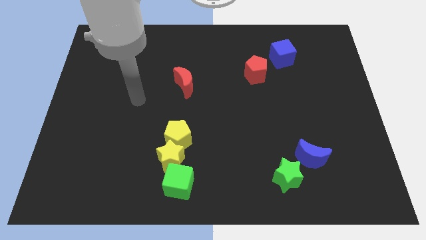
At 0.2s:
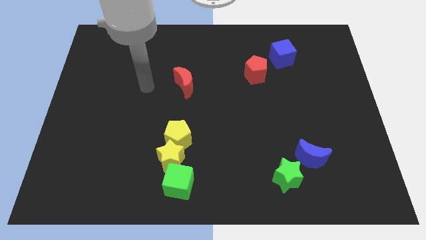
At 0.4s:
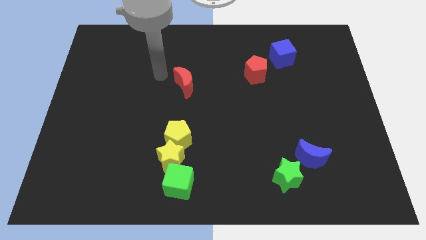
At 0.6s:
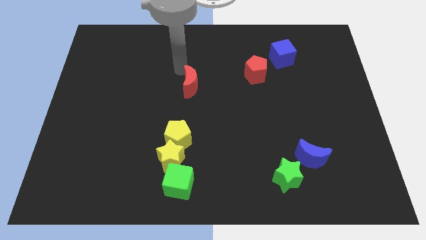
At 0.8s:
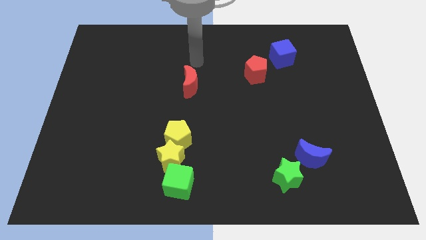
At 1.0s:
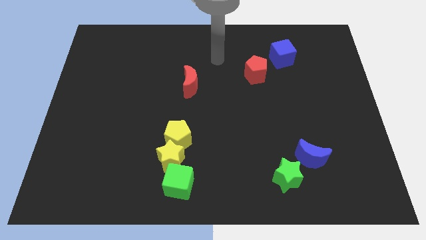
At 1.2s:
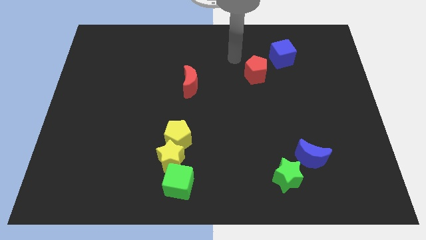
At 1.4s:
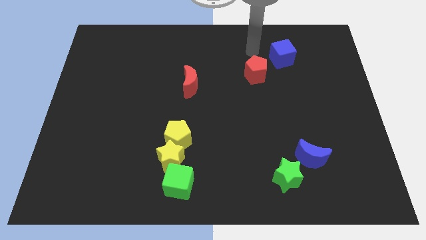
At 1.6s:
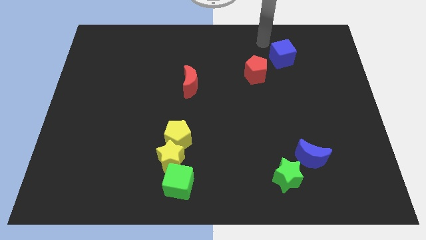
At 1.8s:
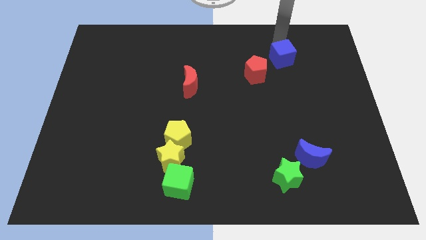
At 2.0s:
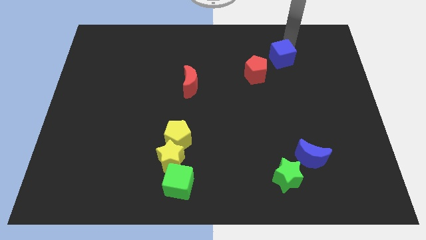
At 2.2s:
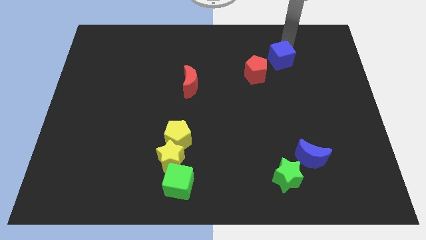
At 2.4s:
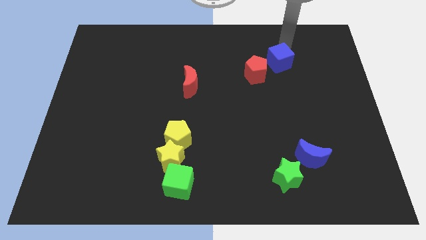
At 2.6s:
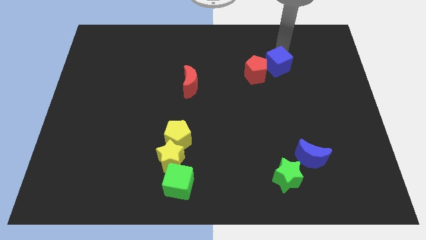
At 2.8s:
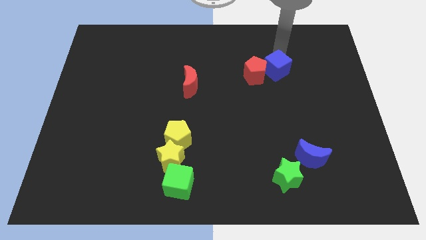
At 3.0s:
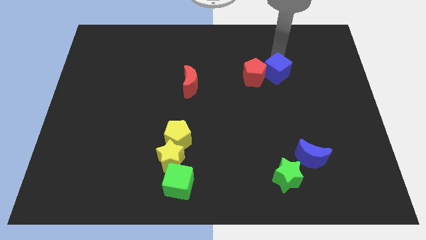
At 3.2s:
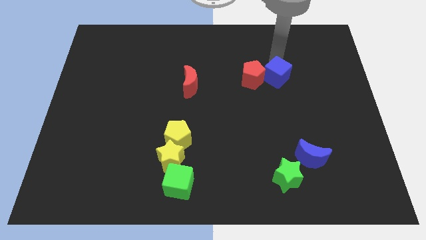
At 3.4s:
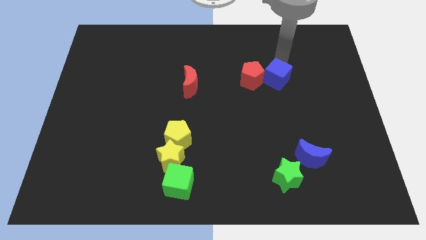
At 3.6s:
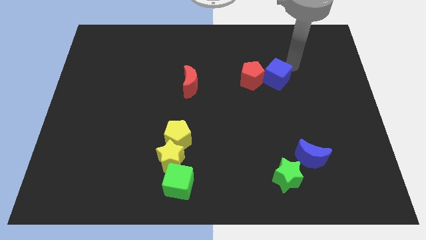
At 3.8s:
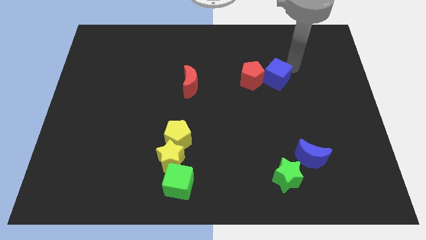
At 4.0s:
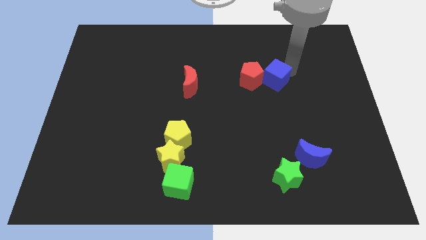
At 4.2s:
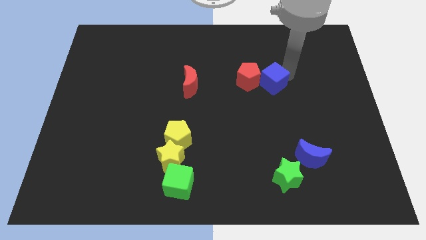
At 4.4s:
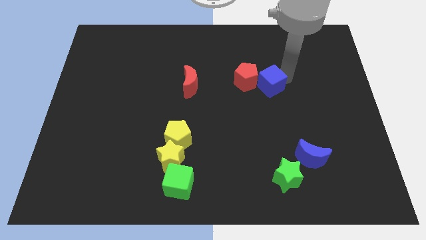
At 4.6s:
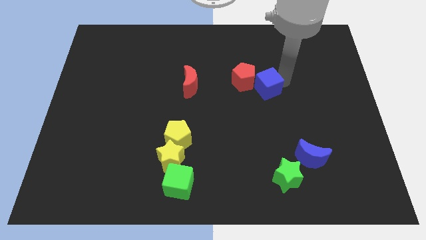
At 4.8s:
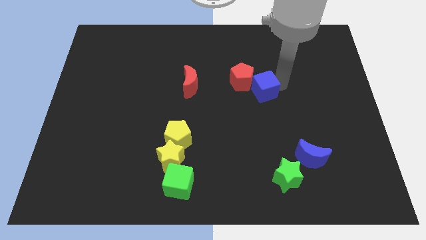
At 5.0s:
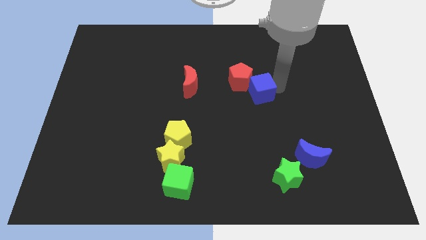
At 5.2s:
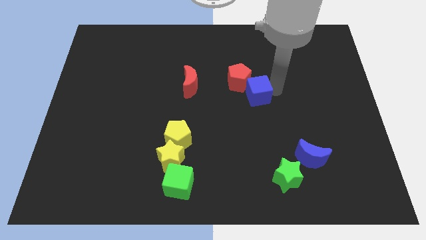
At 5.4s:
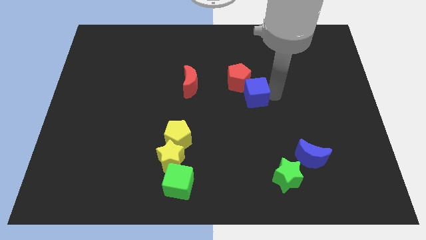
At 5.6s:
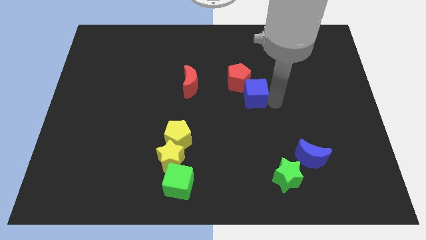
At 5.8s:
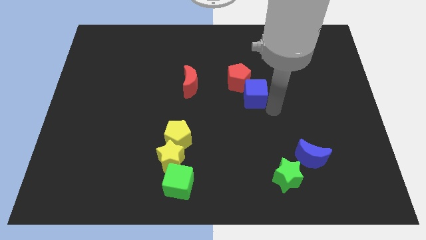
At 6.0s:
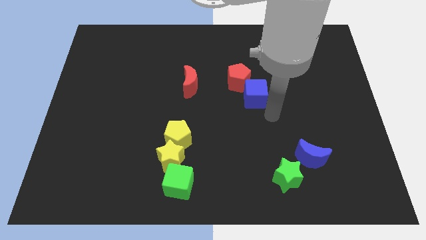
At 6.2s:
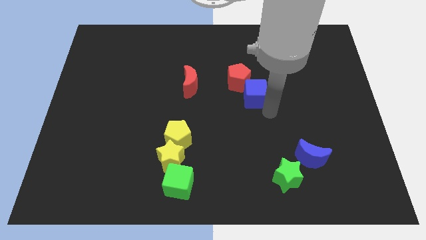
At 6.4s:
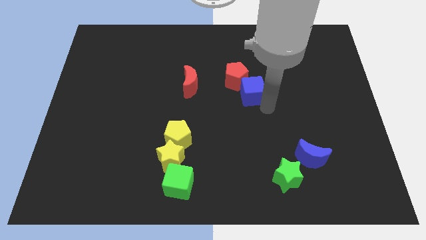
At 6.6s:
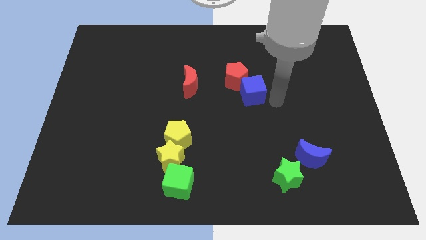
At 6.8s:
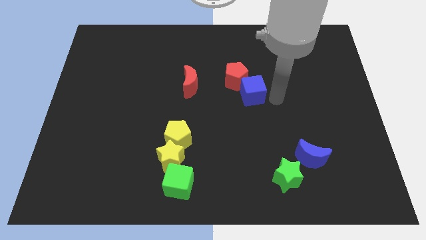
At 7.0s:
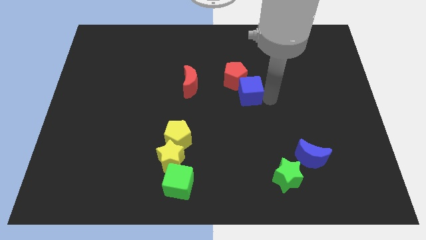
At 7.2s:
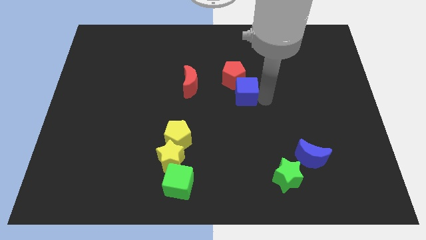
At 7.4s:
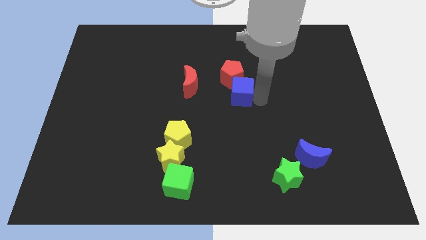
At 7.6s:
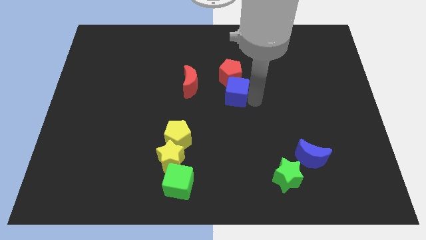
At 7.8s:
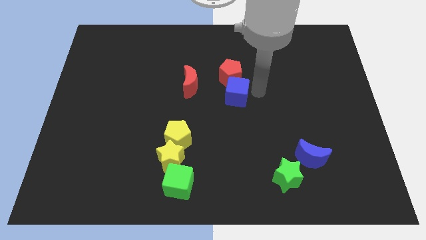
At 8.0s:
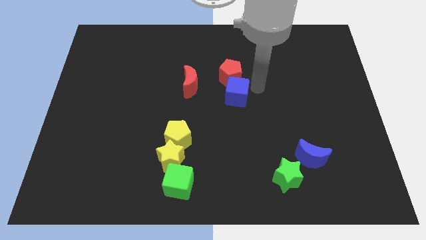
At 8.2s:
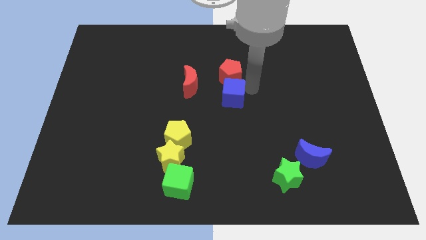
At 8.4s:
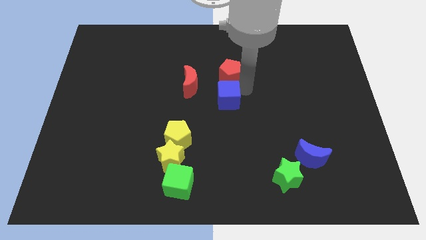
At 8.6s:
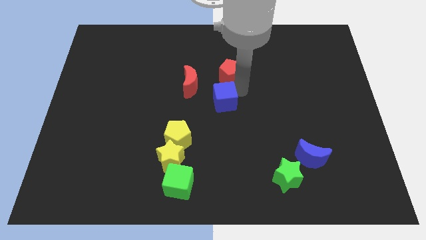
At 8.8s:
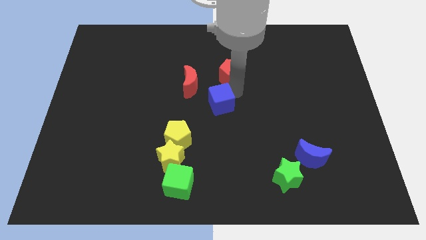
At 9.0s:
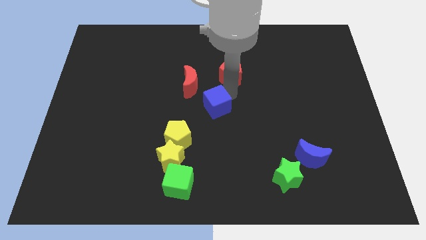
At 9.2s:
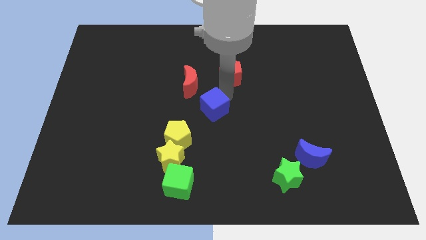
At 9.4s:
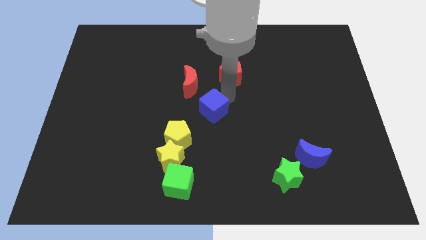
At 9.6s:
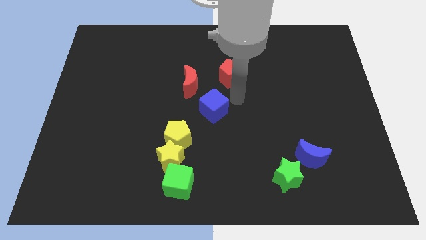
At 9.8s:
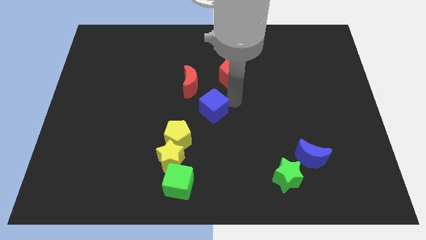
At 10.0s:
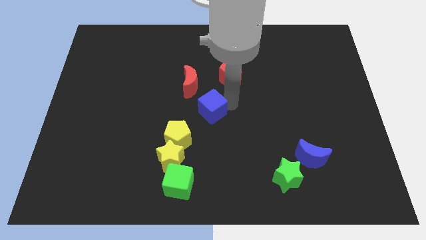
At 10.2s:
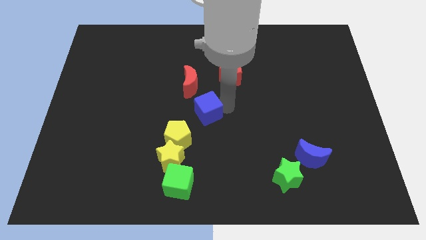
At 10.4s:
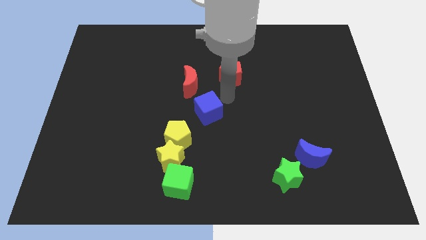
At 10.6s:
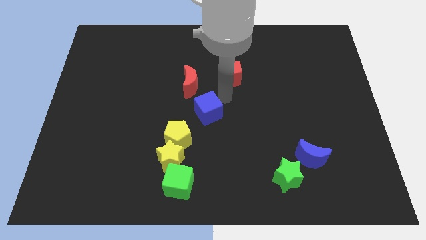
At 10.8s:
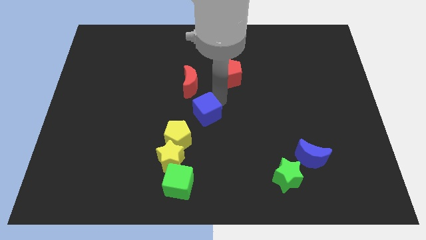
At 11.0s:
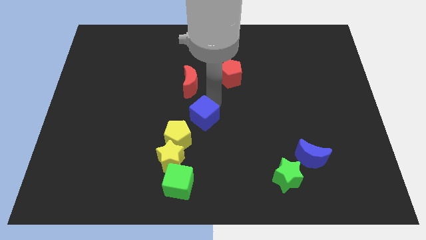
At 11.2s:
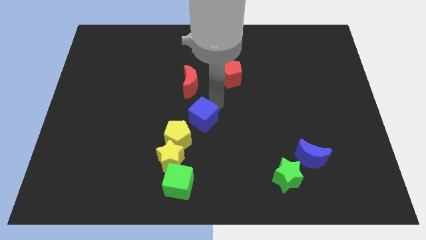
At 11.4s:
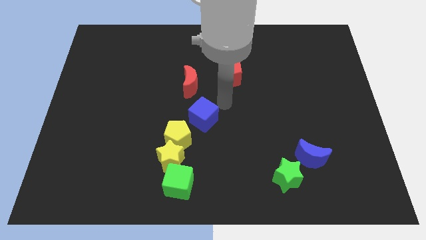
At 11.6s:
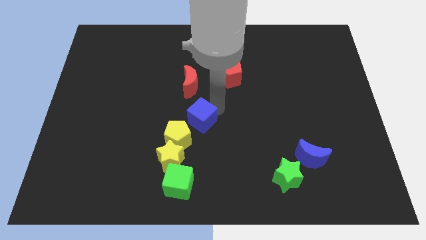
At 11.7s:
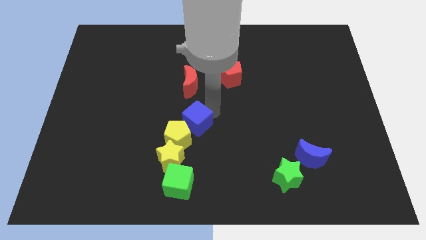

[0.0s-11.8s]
slide the blue cube towards the yellow pentagon

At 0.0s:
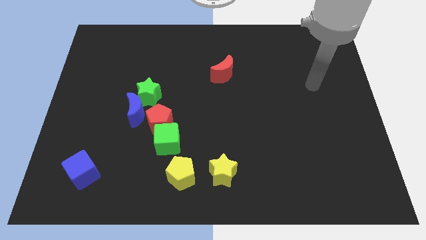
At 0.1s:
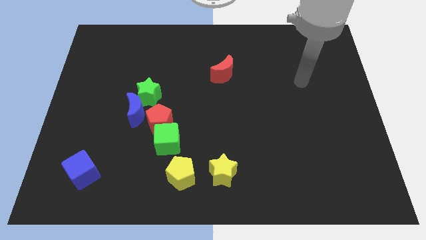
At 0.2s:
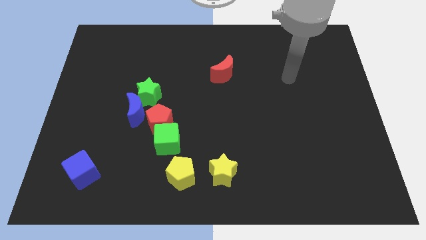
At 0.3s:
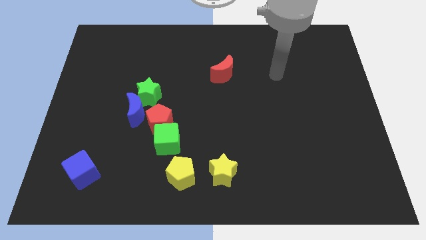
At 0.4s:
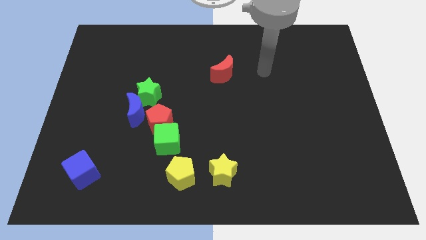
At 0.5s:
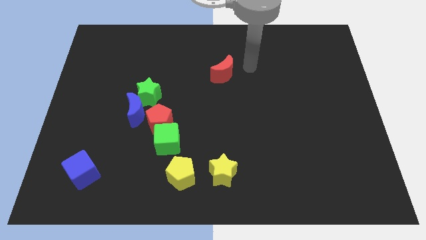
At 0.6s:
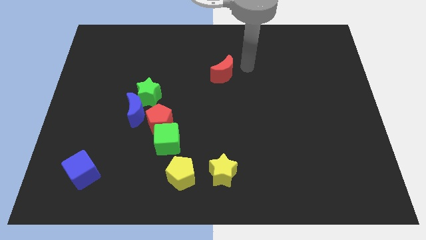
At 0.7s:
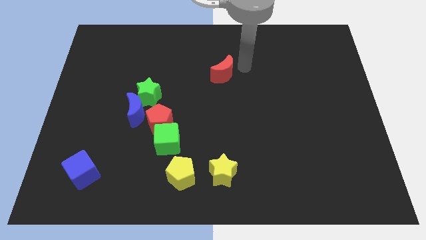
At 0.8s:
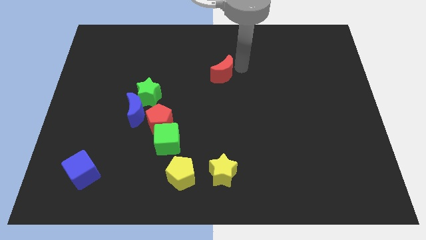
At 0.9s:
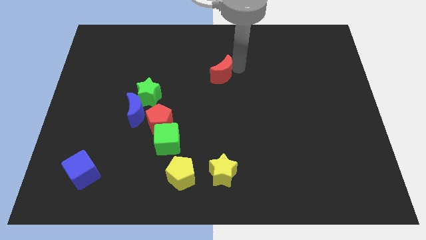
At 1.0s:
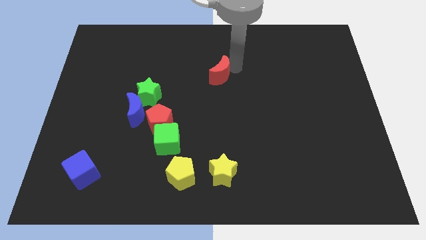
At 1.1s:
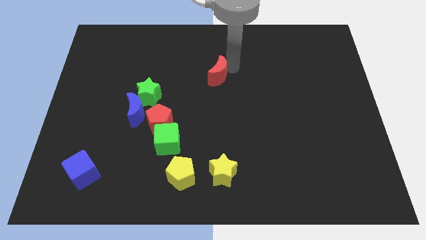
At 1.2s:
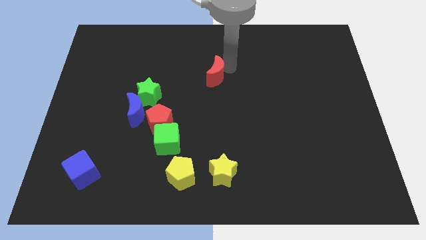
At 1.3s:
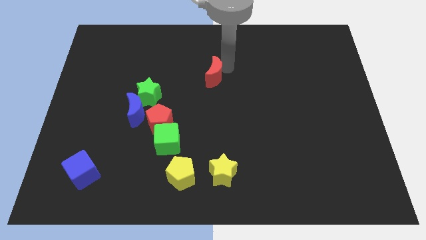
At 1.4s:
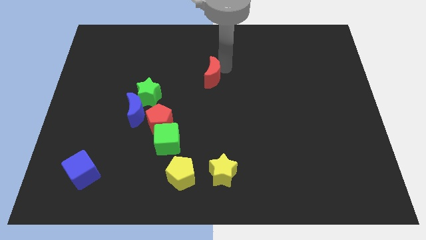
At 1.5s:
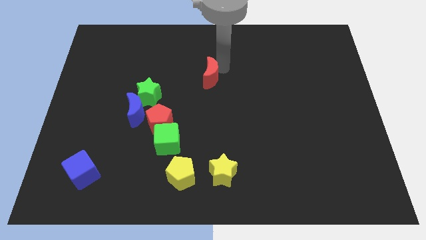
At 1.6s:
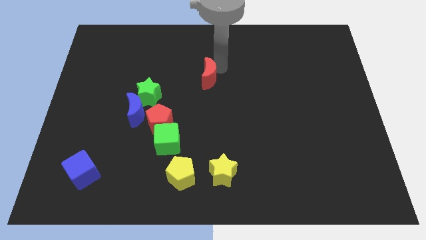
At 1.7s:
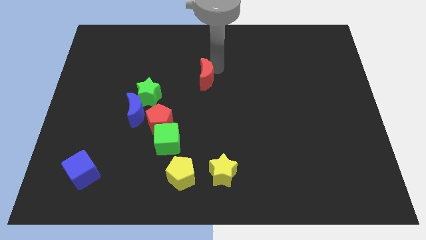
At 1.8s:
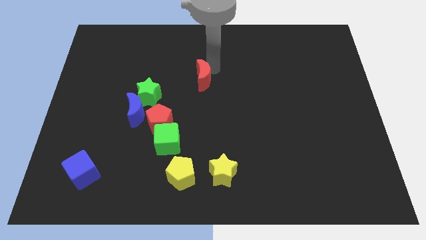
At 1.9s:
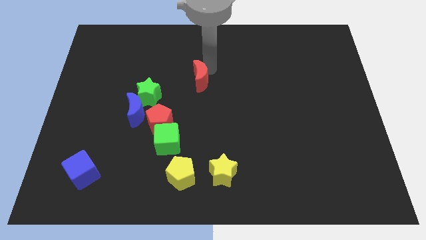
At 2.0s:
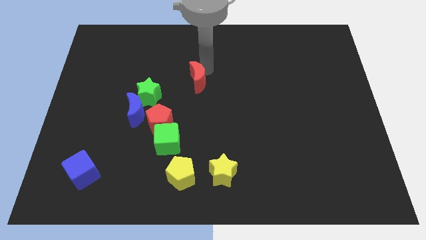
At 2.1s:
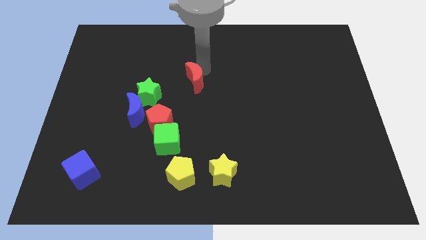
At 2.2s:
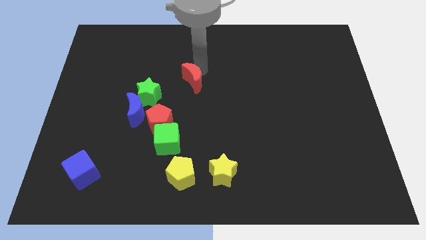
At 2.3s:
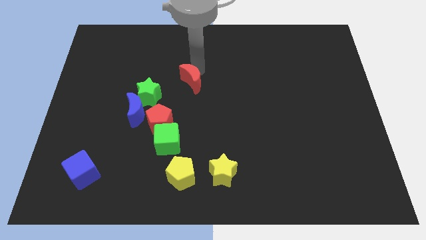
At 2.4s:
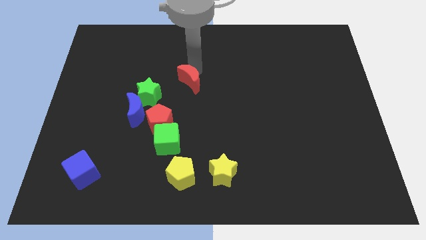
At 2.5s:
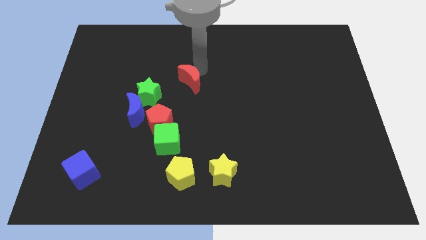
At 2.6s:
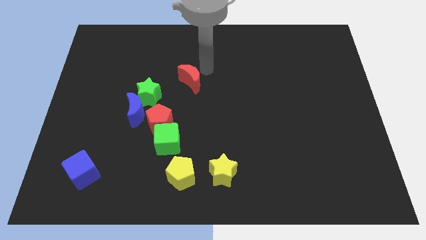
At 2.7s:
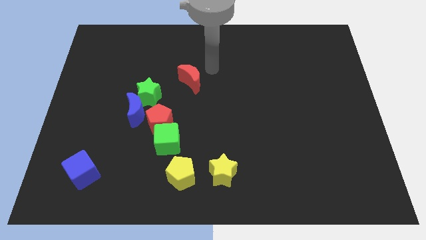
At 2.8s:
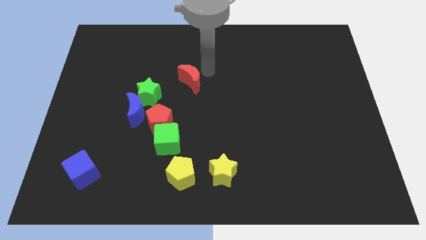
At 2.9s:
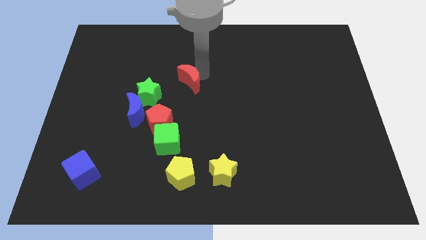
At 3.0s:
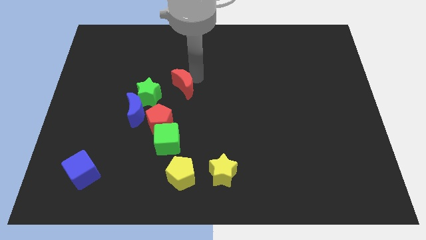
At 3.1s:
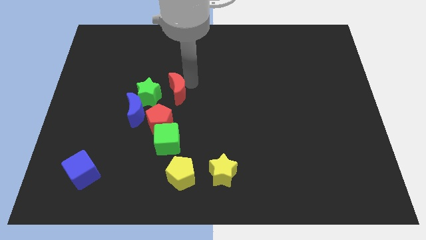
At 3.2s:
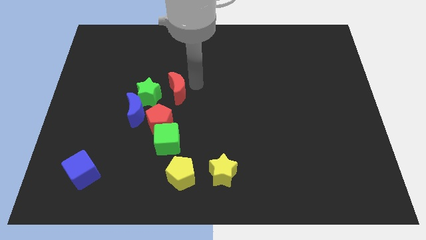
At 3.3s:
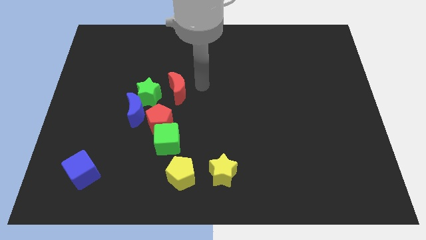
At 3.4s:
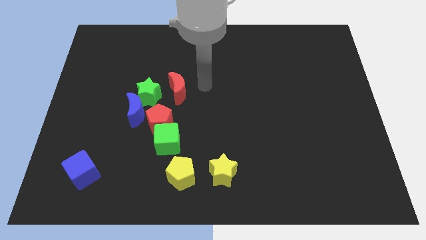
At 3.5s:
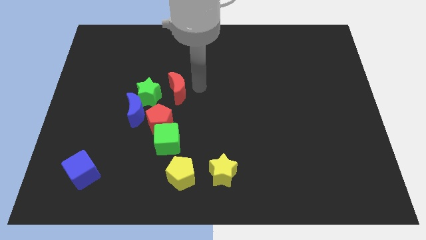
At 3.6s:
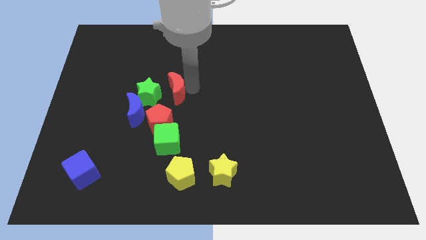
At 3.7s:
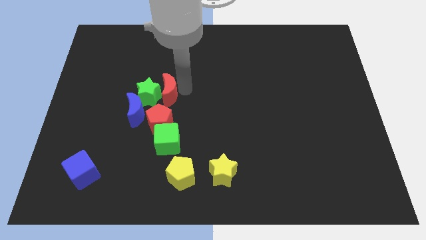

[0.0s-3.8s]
move the red moon next to the green star
